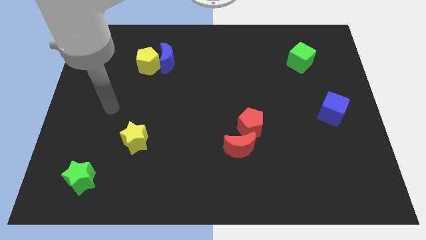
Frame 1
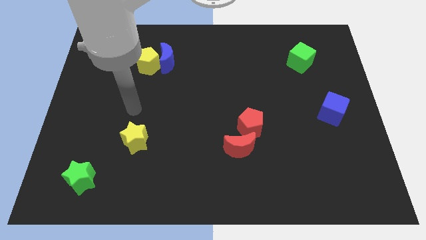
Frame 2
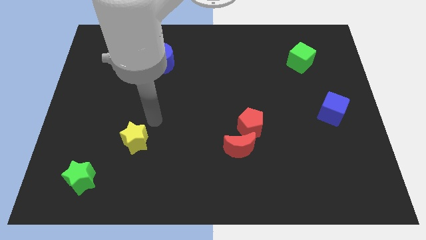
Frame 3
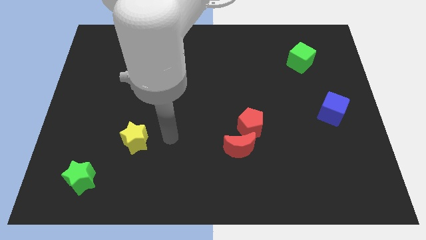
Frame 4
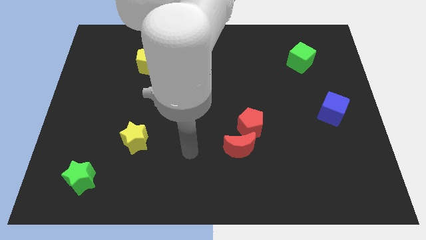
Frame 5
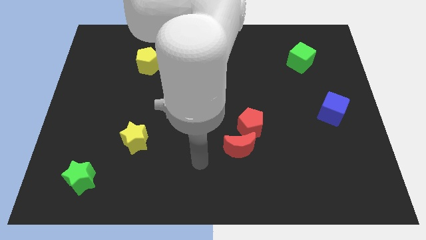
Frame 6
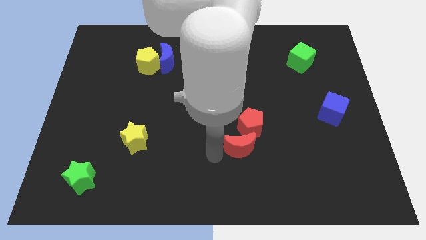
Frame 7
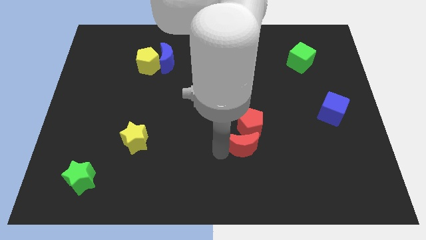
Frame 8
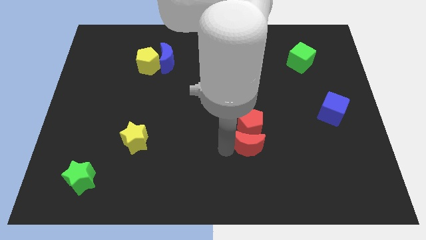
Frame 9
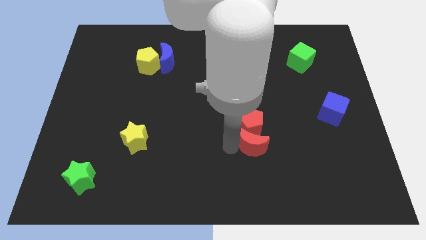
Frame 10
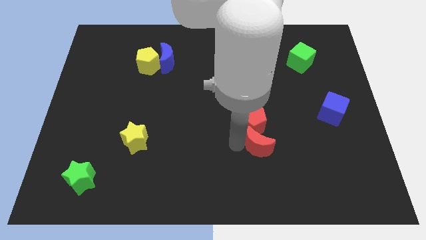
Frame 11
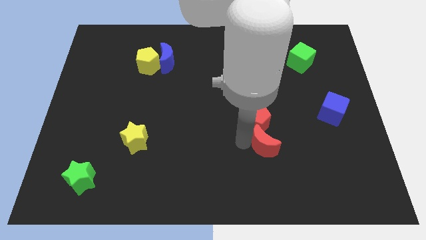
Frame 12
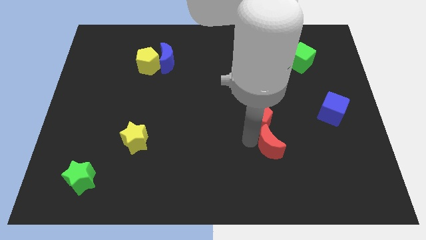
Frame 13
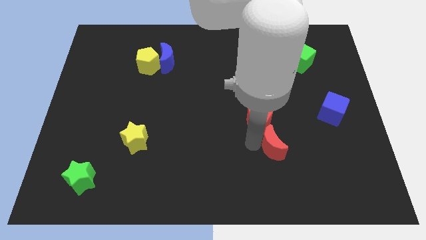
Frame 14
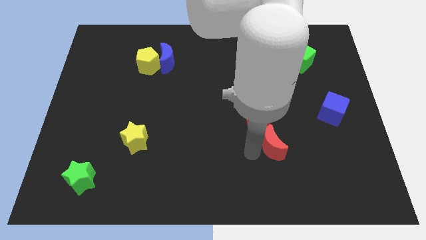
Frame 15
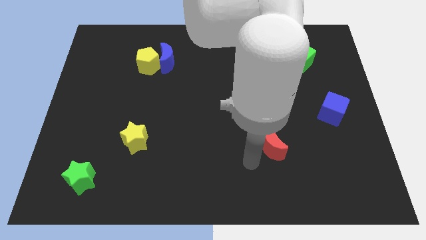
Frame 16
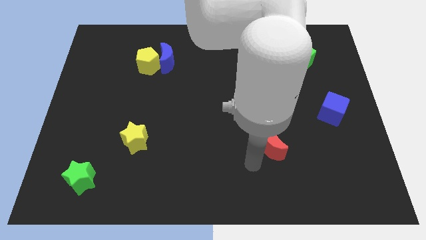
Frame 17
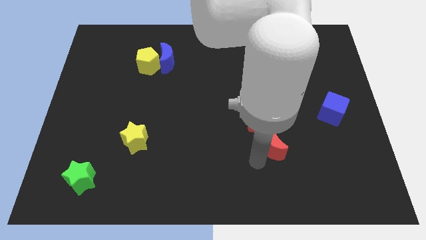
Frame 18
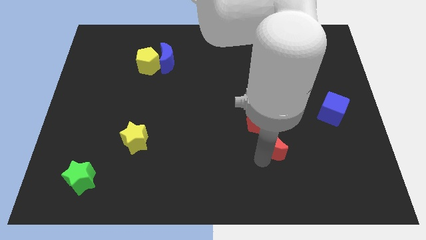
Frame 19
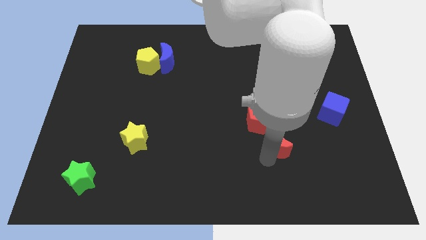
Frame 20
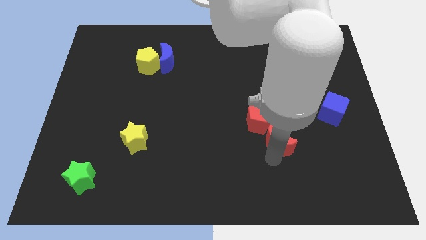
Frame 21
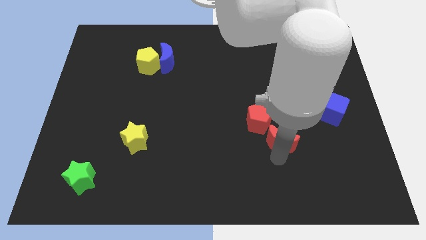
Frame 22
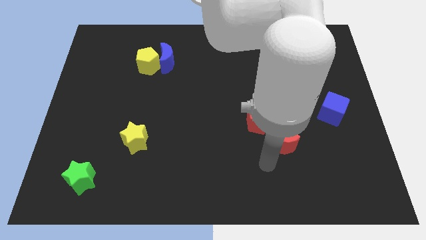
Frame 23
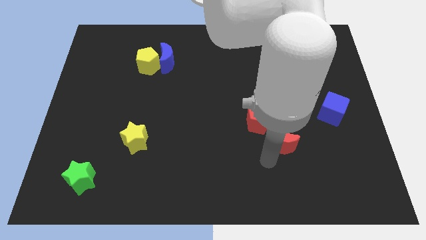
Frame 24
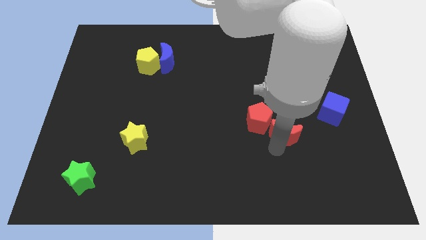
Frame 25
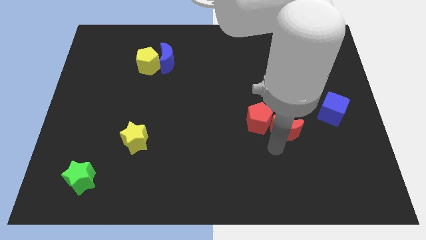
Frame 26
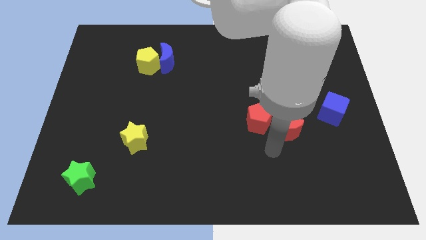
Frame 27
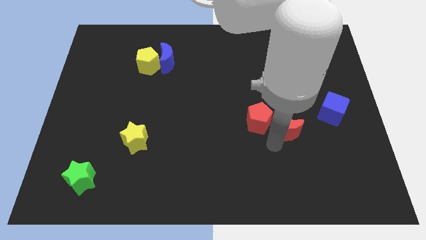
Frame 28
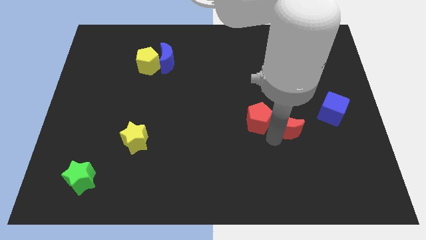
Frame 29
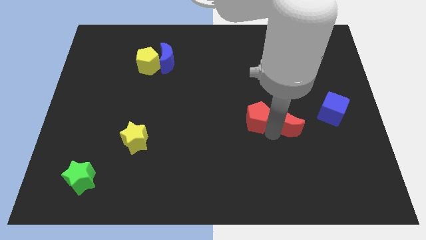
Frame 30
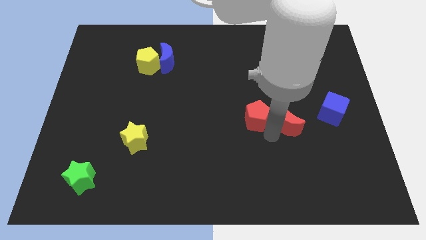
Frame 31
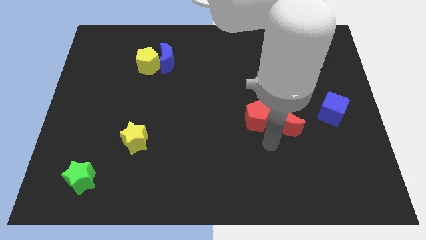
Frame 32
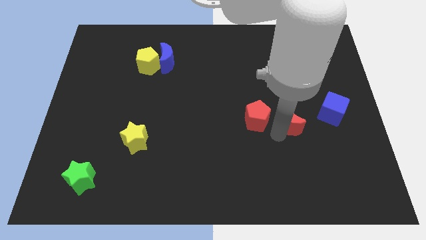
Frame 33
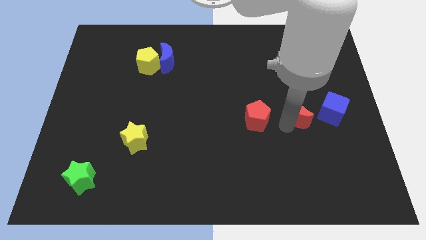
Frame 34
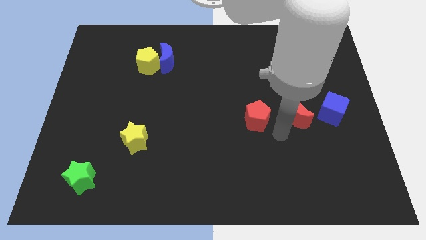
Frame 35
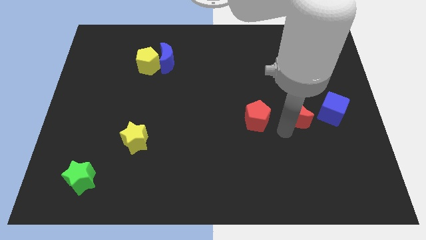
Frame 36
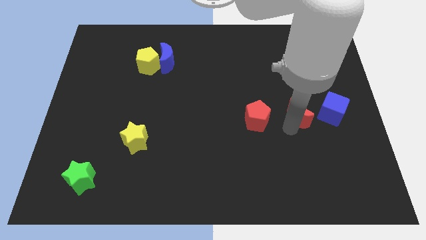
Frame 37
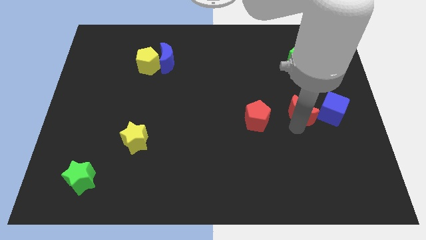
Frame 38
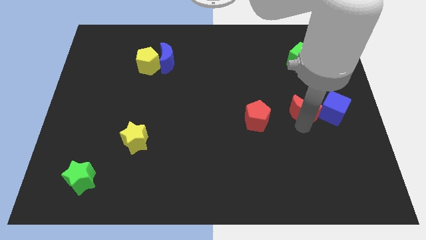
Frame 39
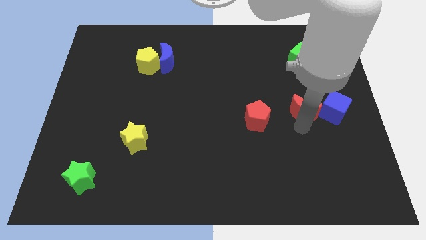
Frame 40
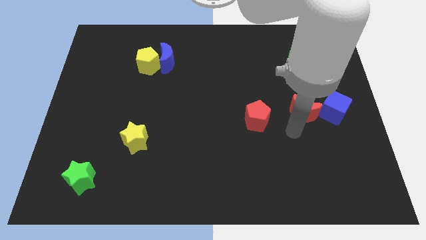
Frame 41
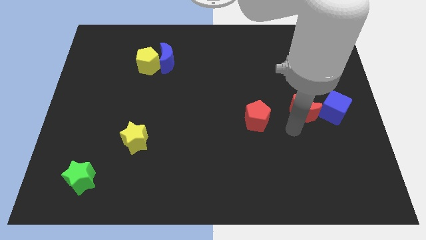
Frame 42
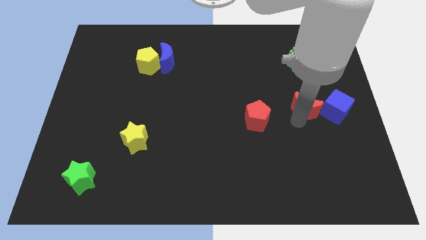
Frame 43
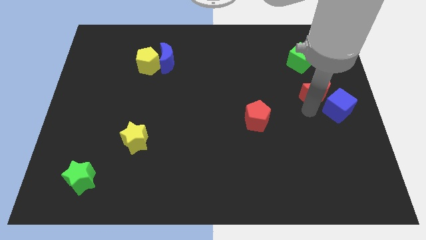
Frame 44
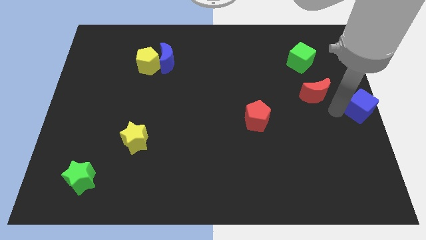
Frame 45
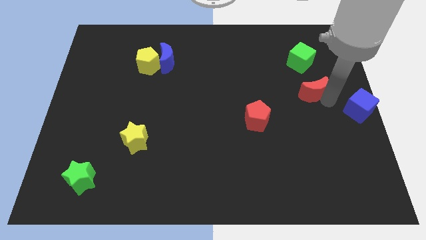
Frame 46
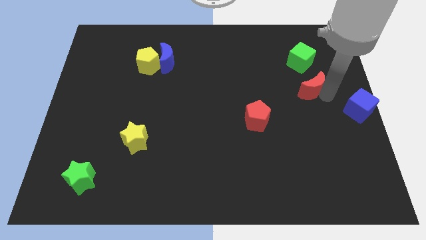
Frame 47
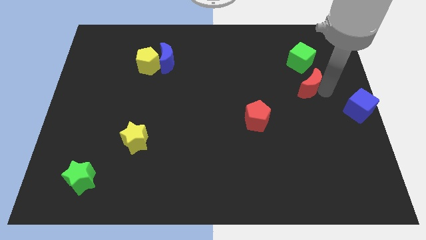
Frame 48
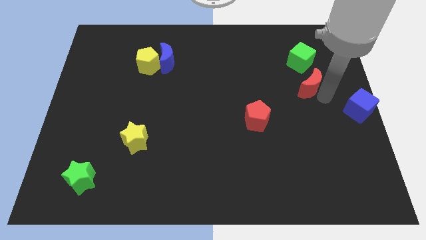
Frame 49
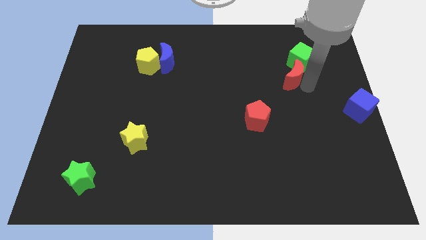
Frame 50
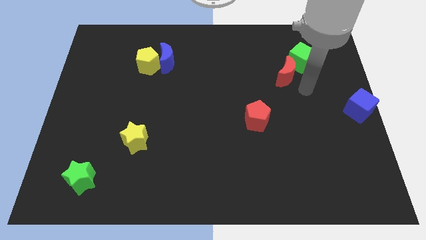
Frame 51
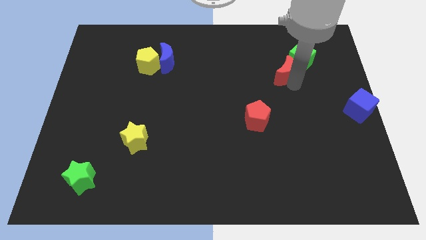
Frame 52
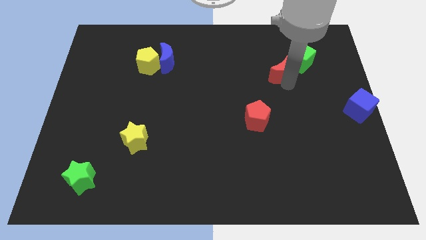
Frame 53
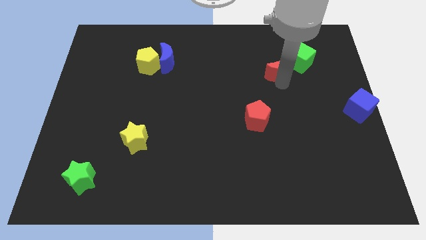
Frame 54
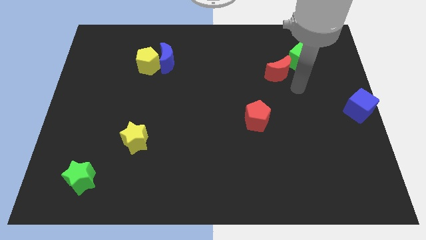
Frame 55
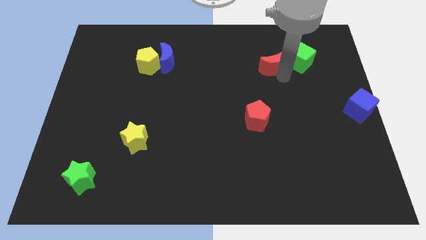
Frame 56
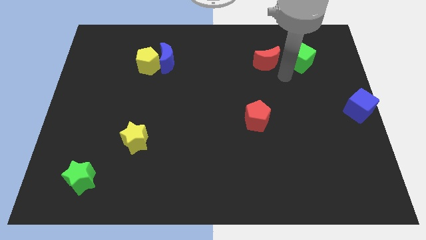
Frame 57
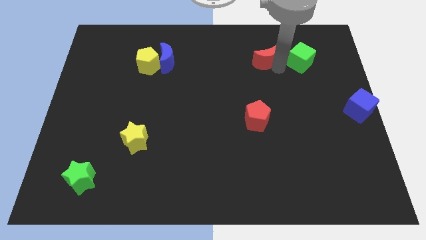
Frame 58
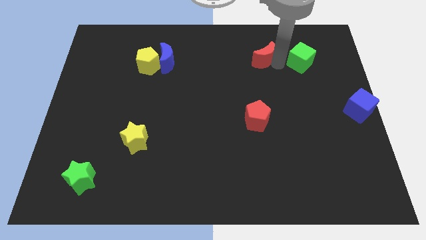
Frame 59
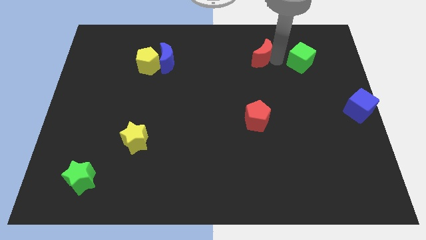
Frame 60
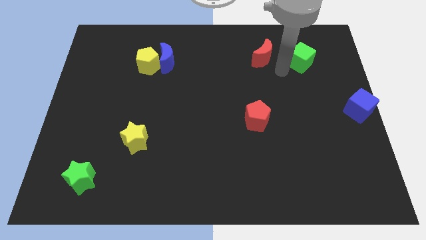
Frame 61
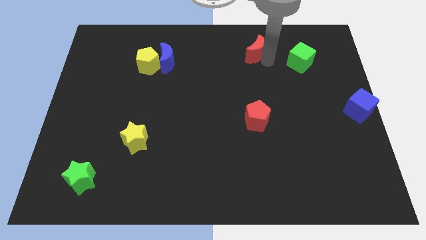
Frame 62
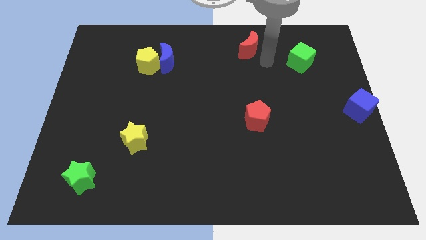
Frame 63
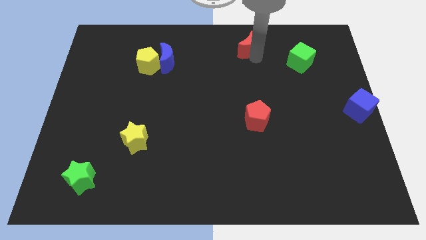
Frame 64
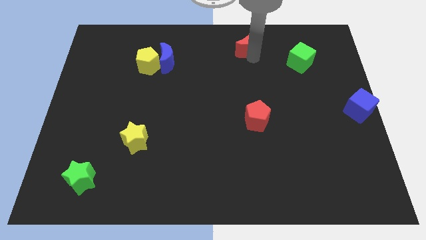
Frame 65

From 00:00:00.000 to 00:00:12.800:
put the red moon to the top side

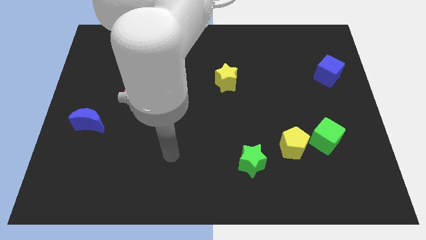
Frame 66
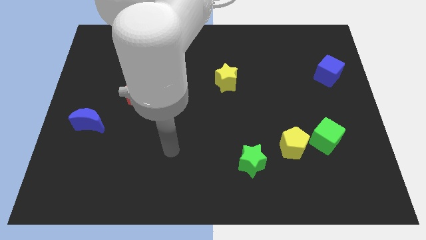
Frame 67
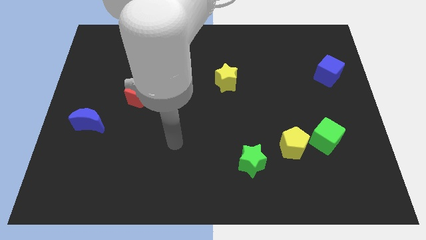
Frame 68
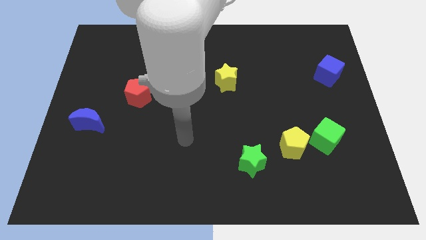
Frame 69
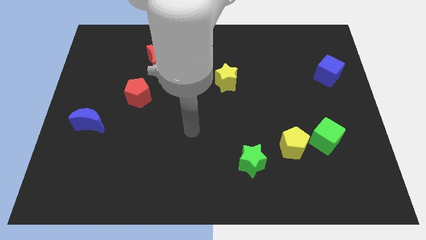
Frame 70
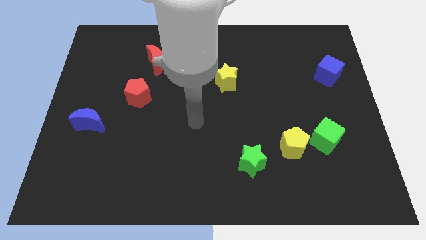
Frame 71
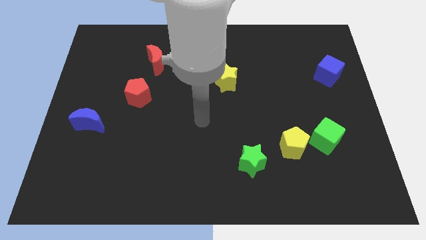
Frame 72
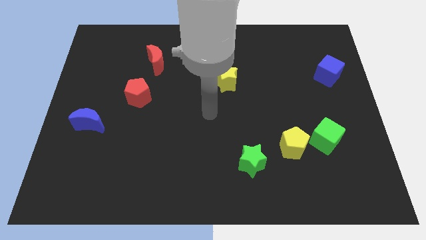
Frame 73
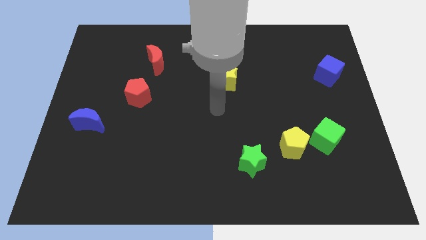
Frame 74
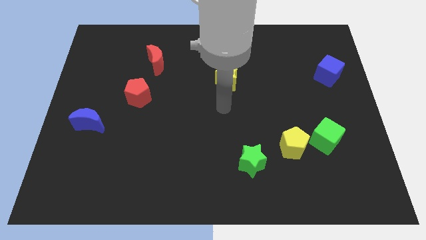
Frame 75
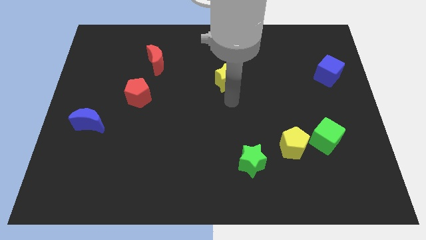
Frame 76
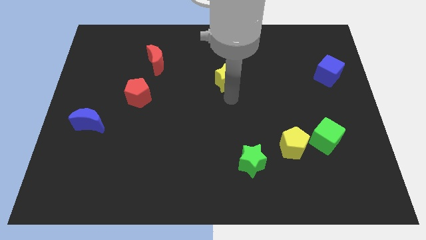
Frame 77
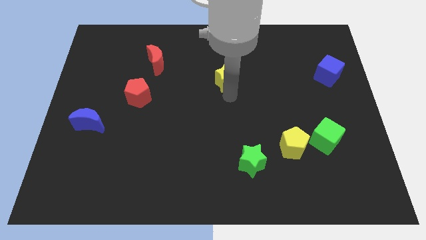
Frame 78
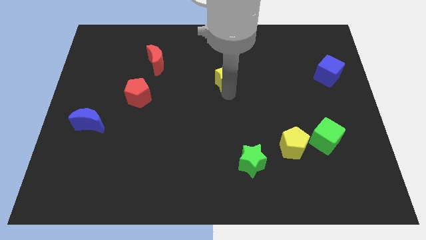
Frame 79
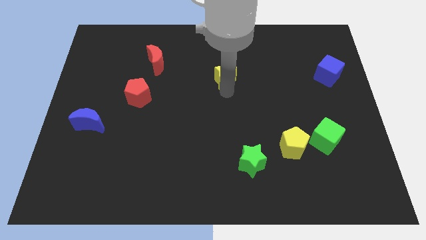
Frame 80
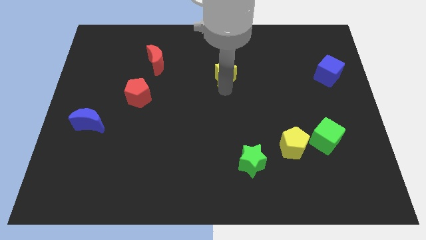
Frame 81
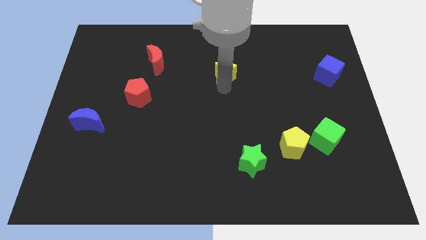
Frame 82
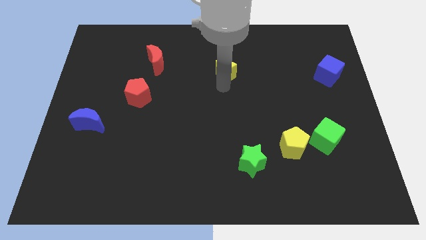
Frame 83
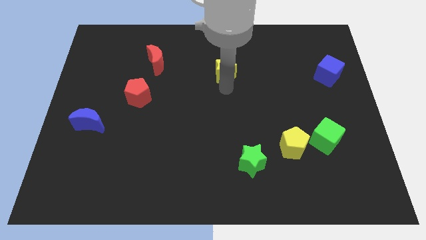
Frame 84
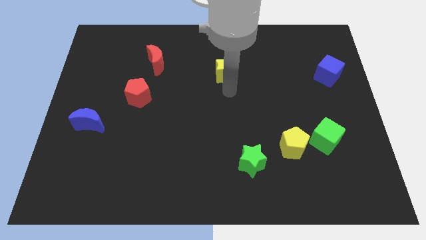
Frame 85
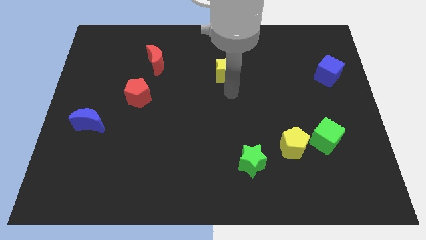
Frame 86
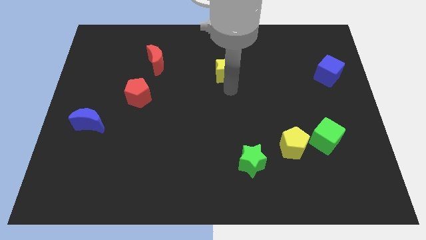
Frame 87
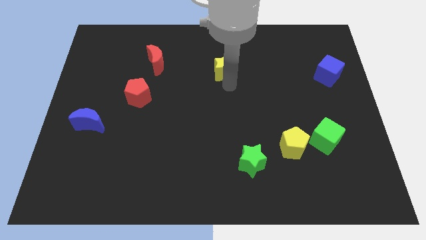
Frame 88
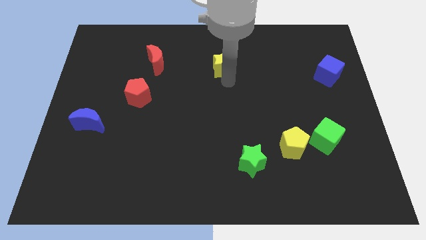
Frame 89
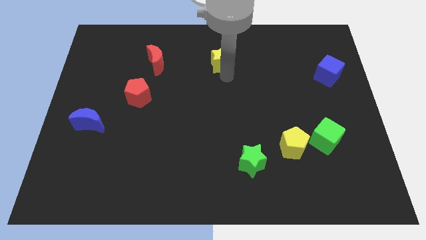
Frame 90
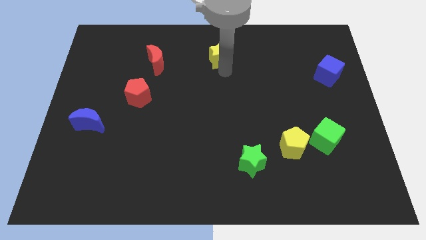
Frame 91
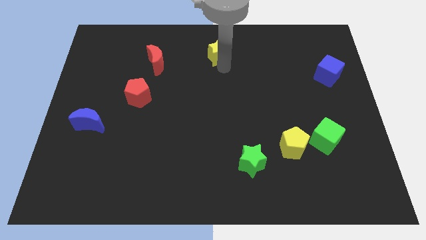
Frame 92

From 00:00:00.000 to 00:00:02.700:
move the yellow star to the top side
